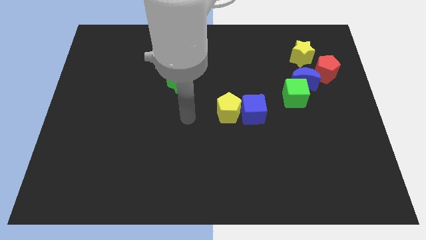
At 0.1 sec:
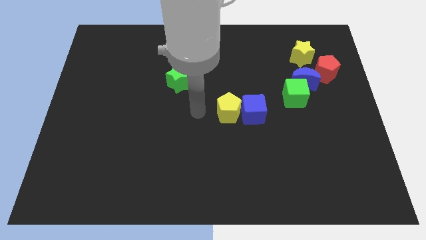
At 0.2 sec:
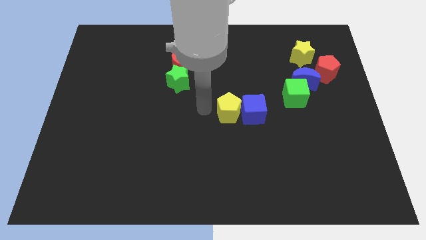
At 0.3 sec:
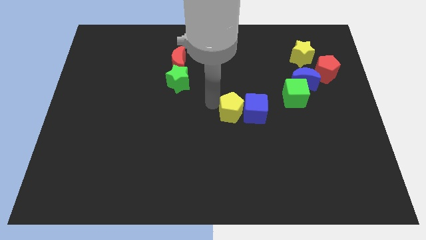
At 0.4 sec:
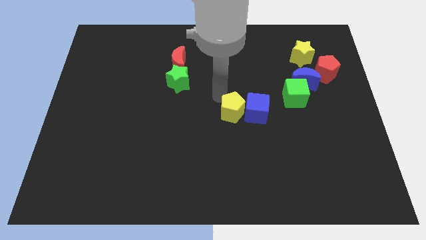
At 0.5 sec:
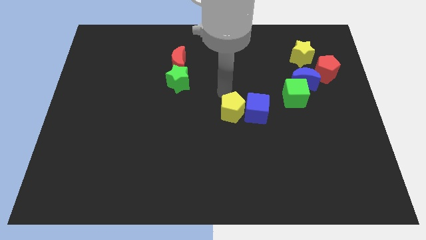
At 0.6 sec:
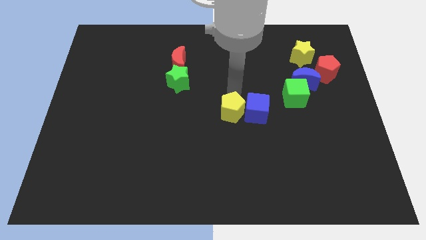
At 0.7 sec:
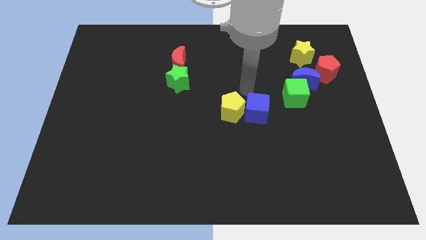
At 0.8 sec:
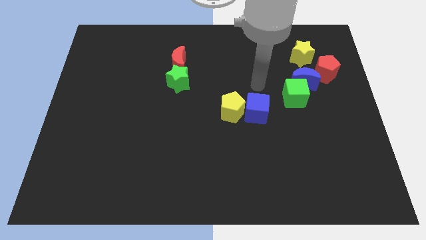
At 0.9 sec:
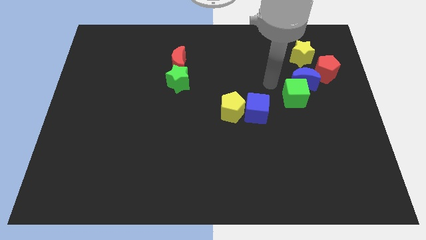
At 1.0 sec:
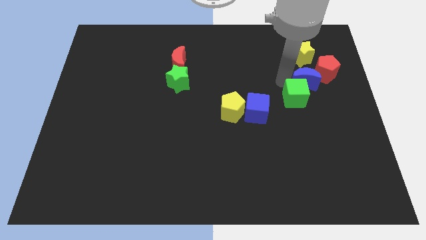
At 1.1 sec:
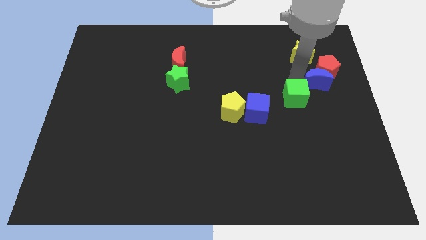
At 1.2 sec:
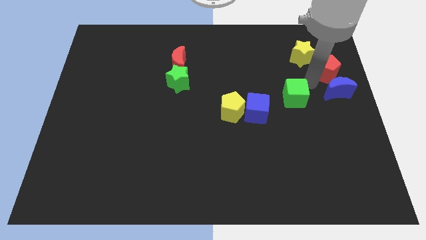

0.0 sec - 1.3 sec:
pull the green cube apart from the blue moon

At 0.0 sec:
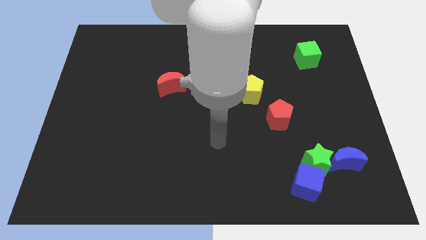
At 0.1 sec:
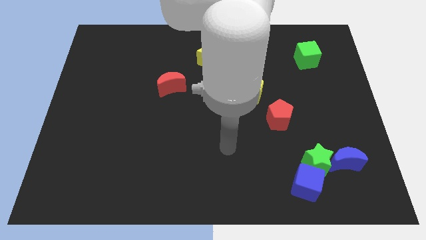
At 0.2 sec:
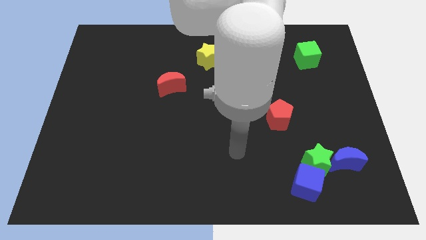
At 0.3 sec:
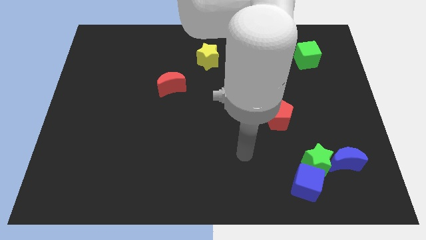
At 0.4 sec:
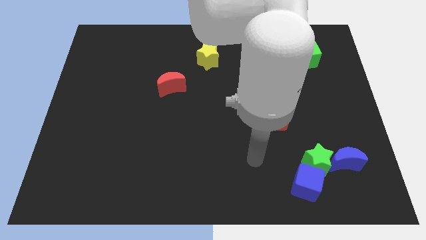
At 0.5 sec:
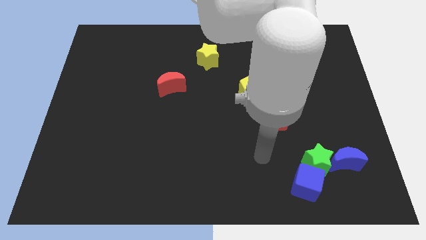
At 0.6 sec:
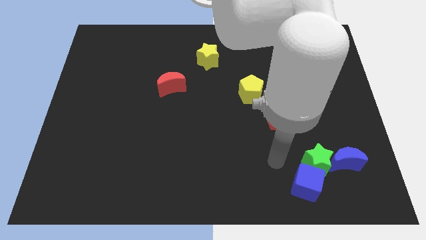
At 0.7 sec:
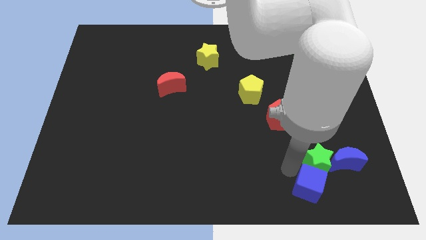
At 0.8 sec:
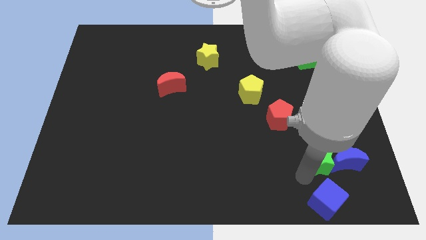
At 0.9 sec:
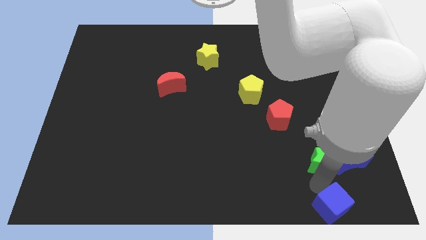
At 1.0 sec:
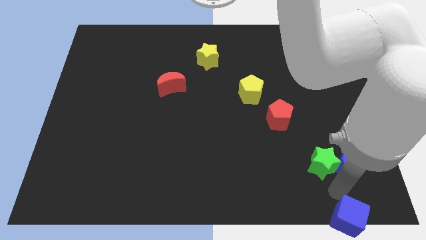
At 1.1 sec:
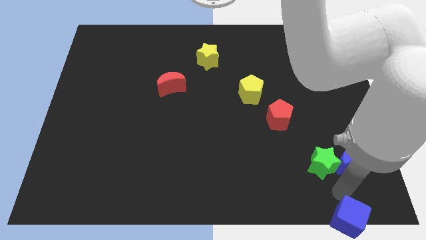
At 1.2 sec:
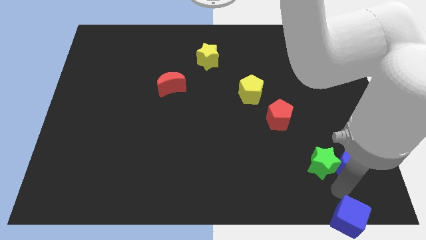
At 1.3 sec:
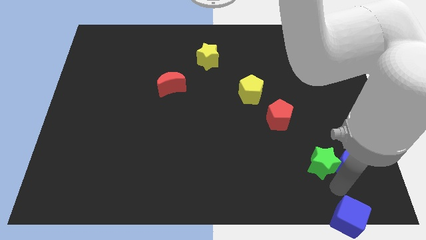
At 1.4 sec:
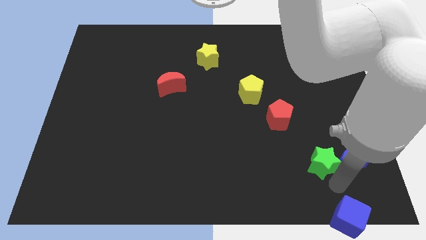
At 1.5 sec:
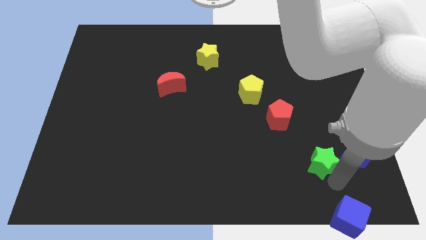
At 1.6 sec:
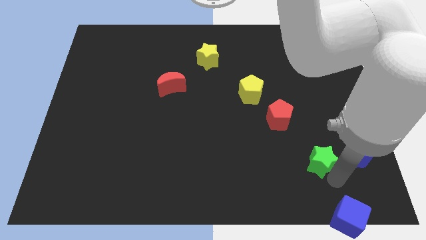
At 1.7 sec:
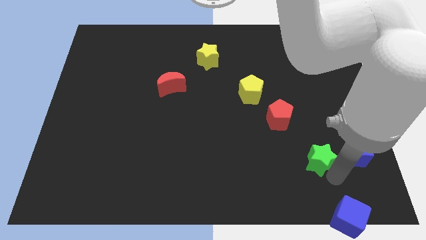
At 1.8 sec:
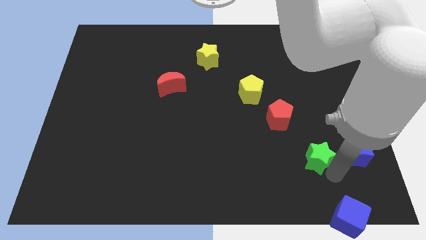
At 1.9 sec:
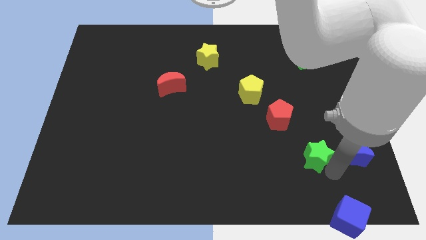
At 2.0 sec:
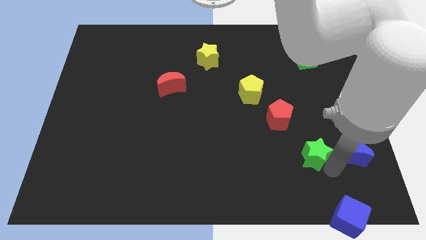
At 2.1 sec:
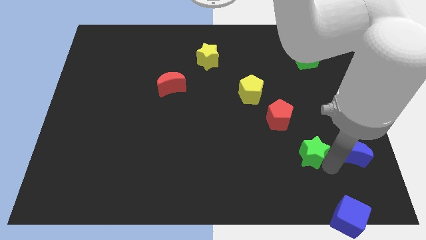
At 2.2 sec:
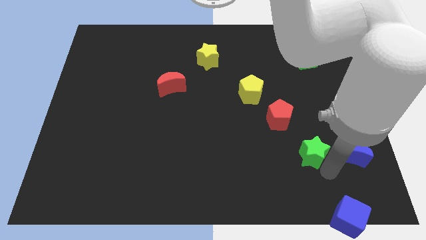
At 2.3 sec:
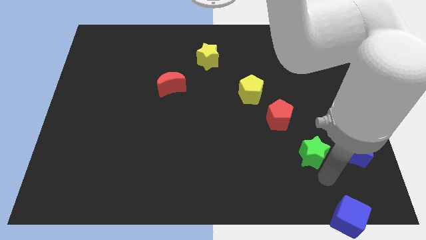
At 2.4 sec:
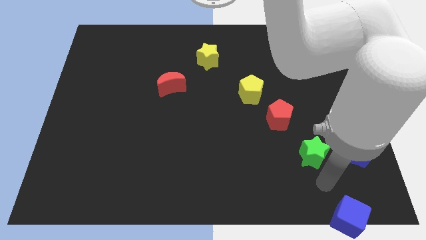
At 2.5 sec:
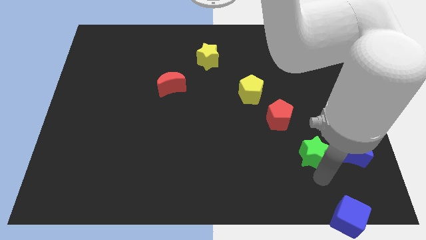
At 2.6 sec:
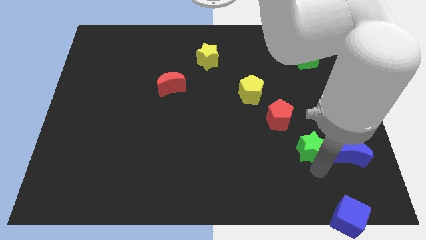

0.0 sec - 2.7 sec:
move the green star away from the blue cube and blue moon

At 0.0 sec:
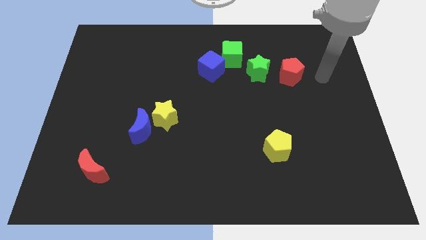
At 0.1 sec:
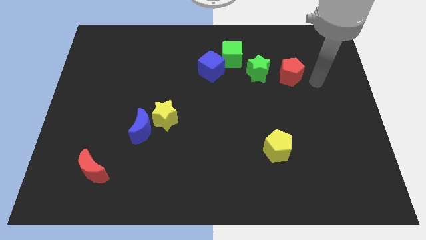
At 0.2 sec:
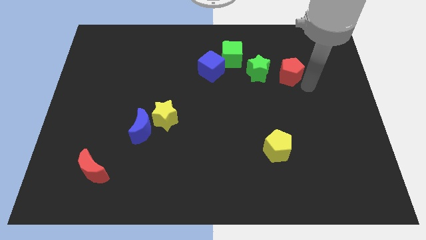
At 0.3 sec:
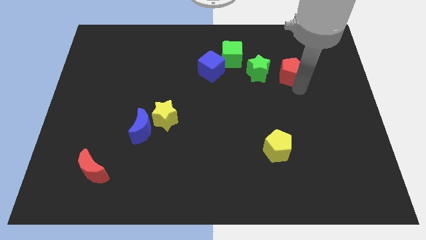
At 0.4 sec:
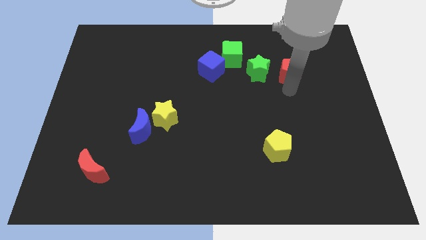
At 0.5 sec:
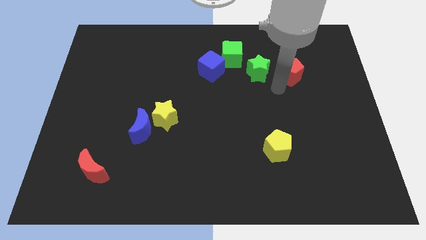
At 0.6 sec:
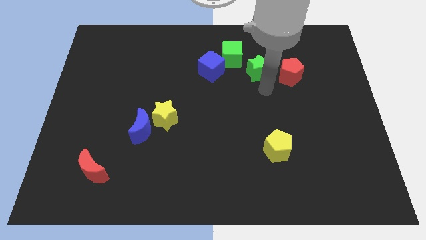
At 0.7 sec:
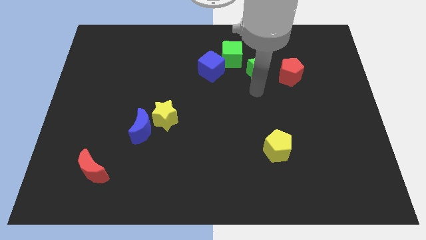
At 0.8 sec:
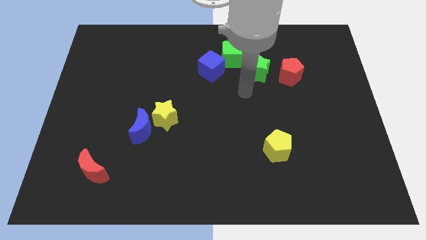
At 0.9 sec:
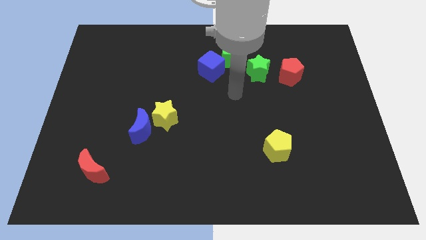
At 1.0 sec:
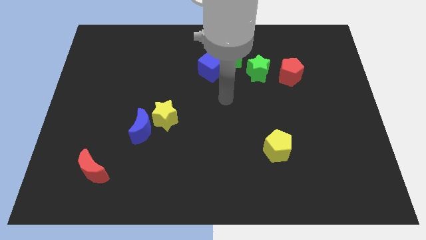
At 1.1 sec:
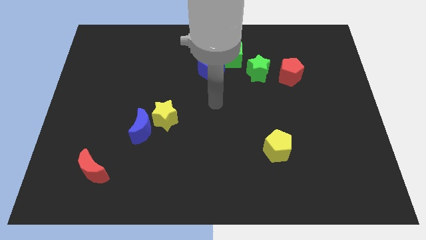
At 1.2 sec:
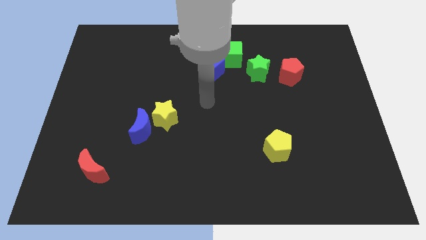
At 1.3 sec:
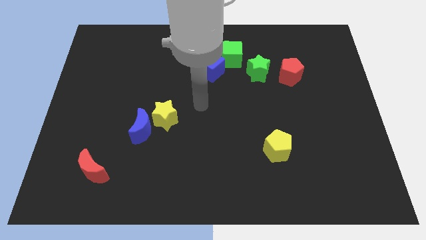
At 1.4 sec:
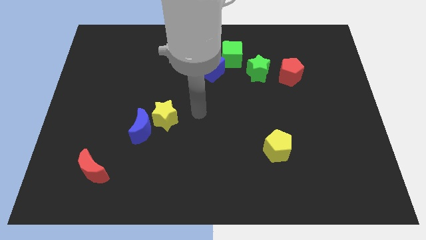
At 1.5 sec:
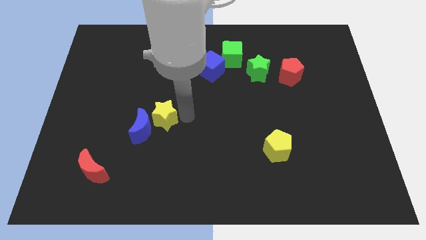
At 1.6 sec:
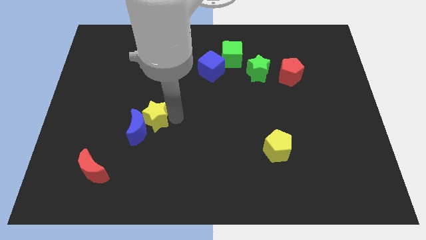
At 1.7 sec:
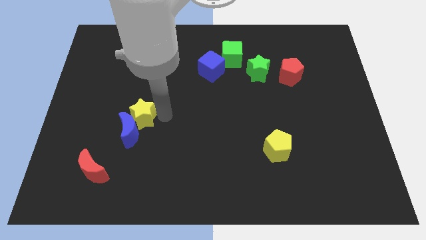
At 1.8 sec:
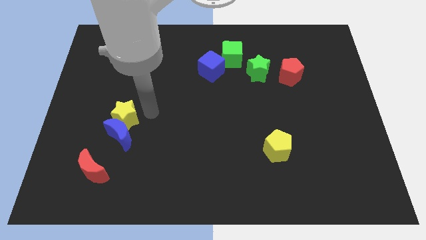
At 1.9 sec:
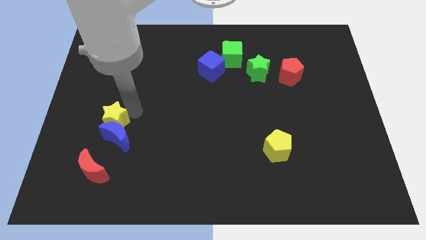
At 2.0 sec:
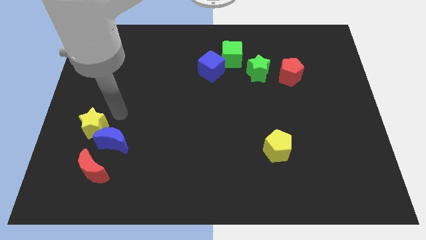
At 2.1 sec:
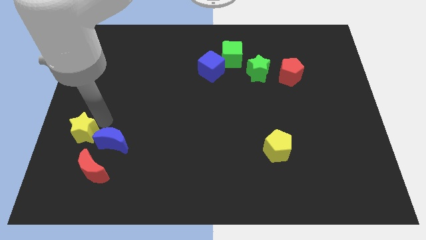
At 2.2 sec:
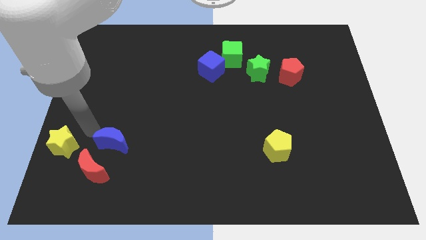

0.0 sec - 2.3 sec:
move the blue moon away from the yellow star

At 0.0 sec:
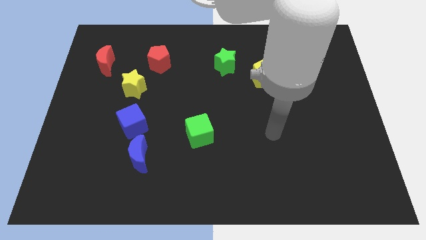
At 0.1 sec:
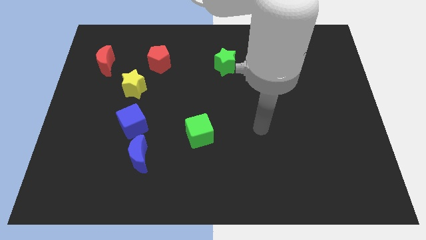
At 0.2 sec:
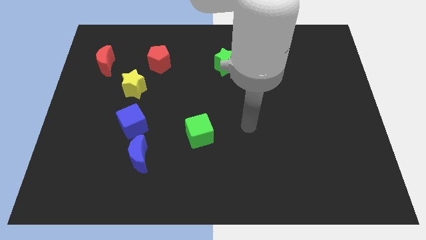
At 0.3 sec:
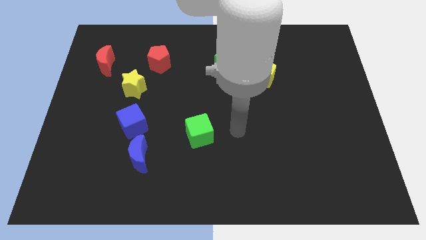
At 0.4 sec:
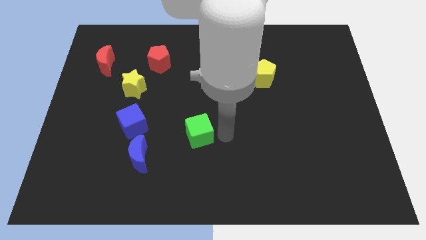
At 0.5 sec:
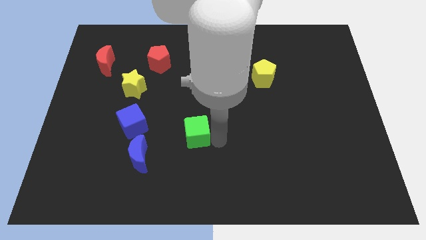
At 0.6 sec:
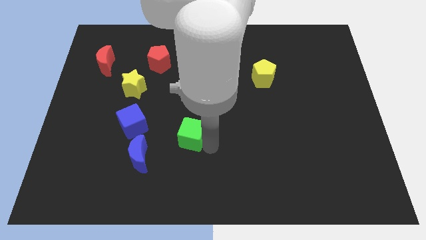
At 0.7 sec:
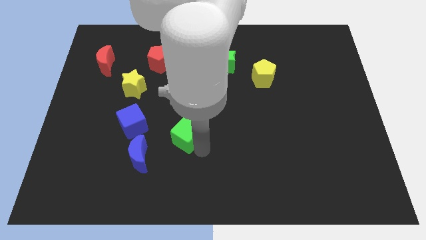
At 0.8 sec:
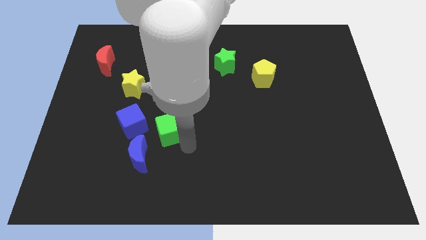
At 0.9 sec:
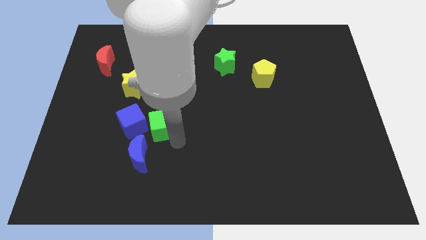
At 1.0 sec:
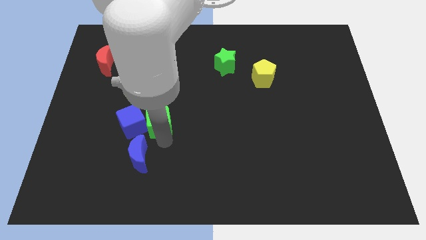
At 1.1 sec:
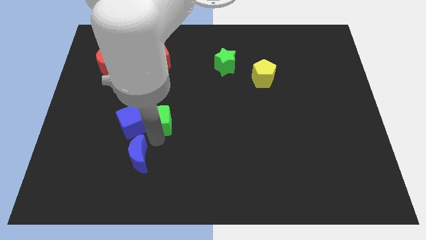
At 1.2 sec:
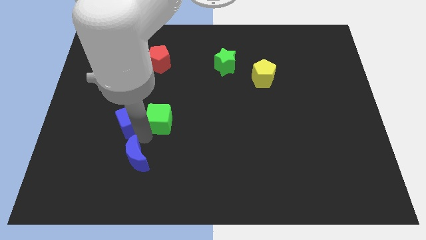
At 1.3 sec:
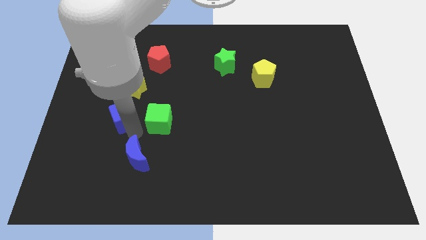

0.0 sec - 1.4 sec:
pull the blue moon apart from the blue cube

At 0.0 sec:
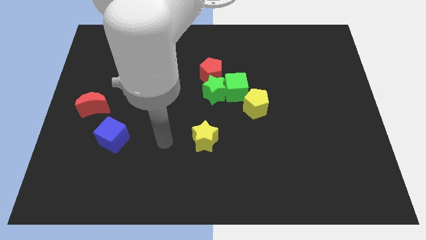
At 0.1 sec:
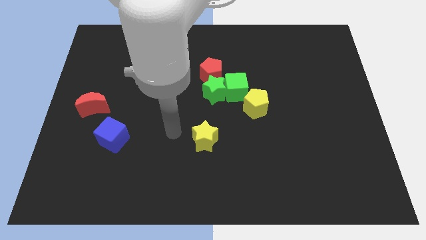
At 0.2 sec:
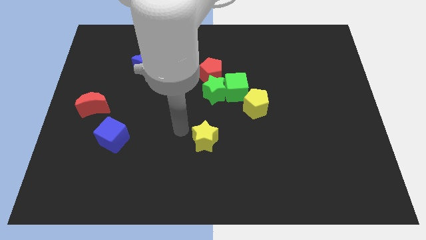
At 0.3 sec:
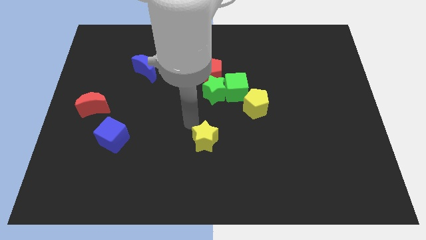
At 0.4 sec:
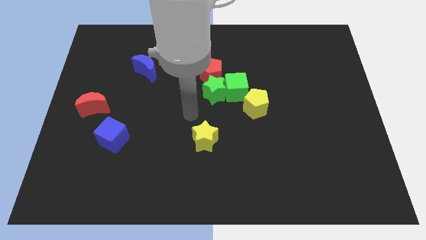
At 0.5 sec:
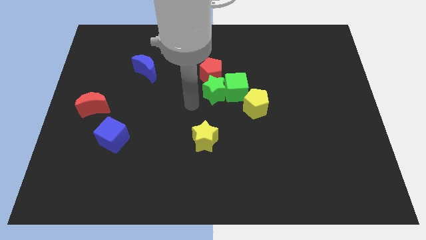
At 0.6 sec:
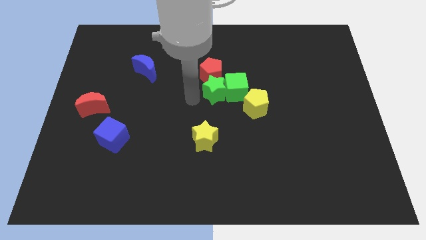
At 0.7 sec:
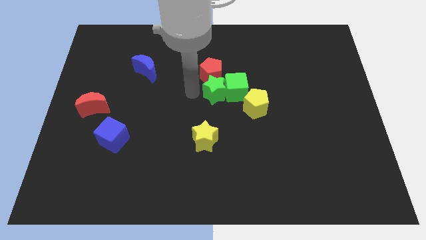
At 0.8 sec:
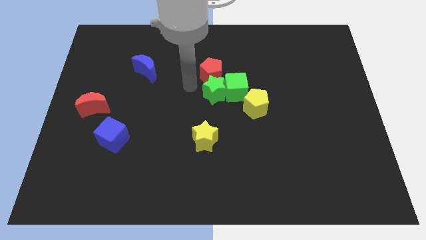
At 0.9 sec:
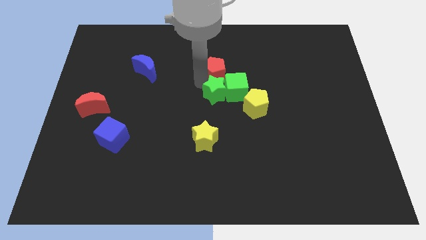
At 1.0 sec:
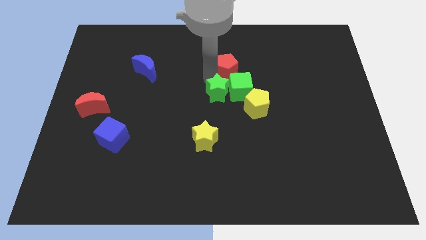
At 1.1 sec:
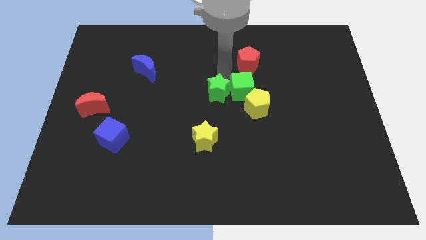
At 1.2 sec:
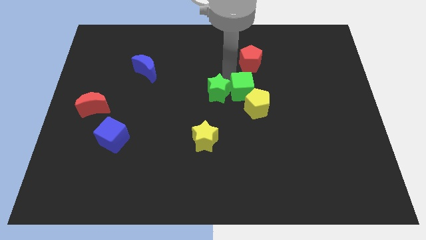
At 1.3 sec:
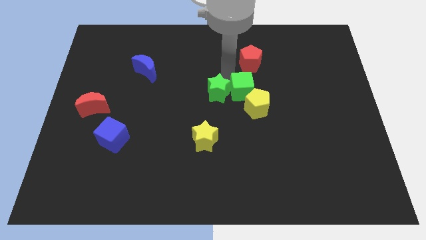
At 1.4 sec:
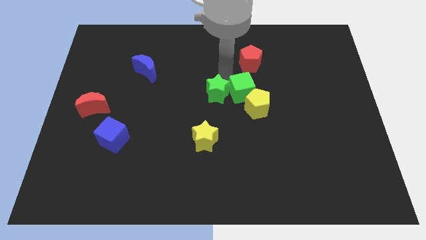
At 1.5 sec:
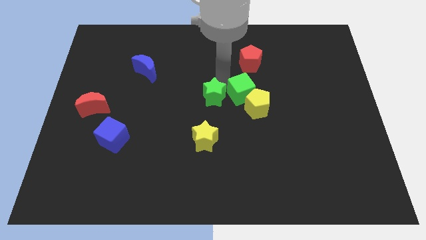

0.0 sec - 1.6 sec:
separate the green star from the green cube and red pentagon
